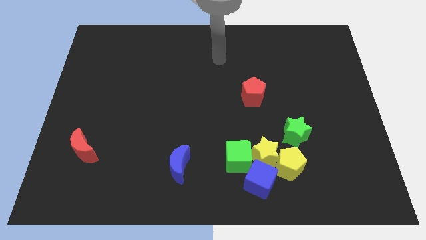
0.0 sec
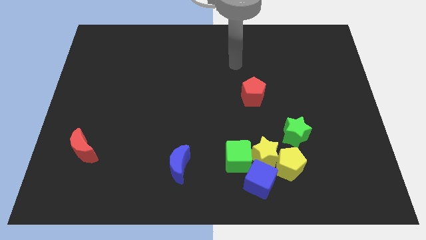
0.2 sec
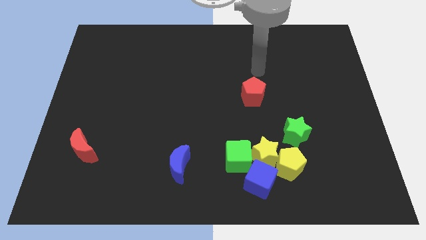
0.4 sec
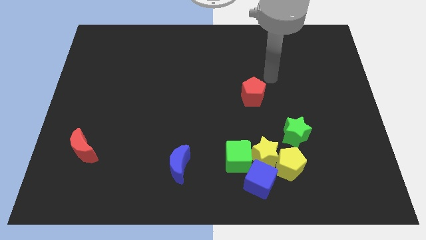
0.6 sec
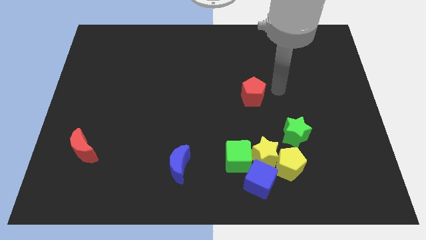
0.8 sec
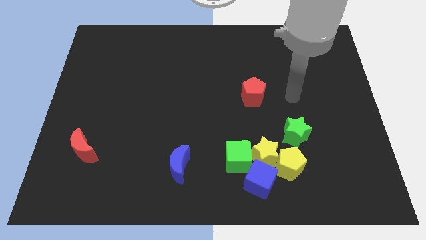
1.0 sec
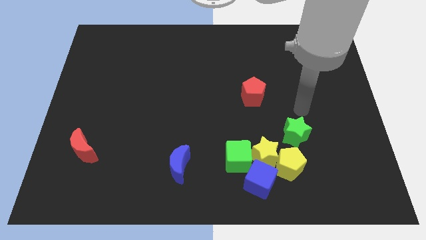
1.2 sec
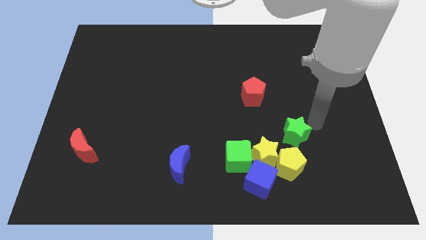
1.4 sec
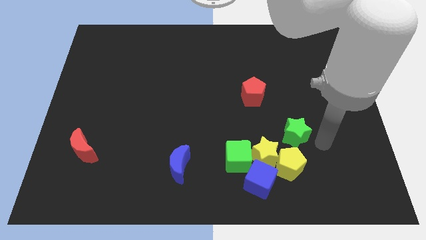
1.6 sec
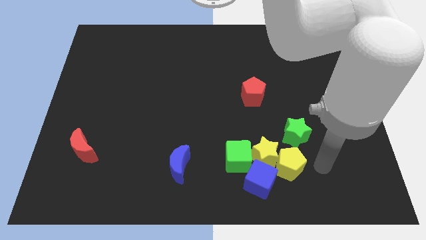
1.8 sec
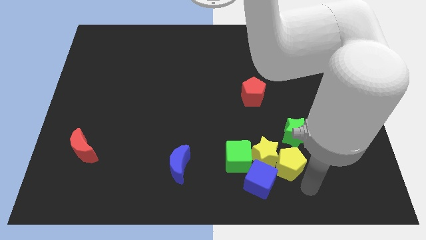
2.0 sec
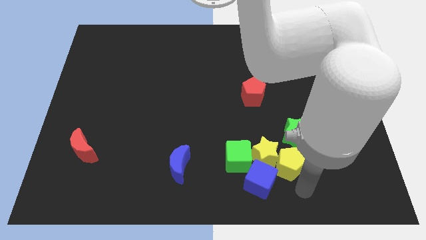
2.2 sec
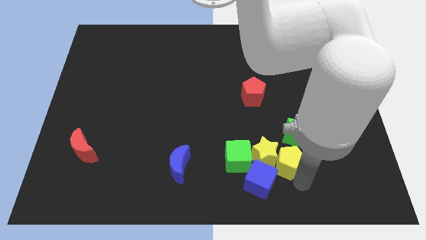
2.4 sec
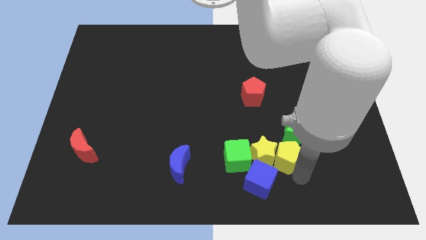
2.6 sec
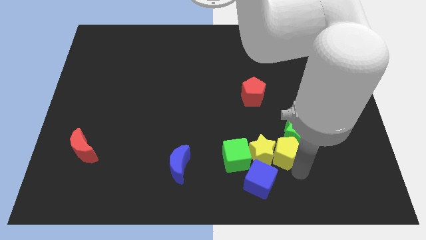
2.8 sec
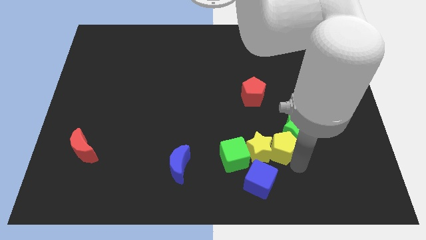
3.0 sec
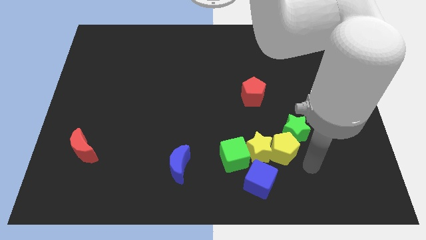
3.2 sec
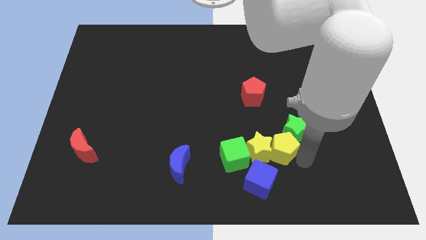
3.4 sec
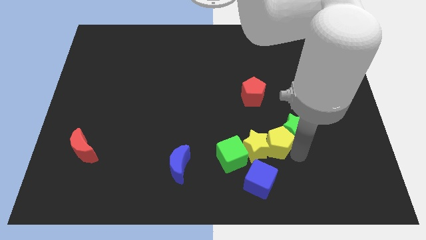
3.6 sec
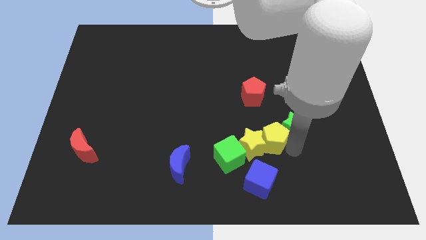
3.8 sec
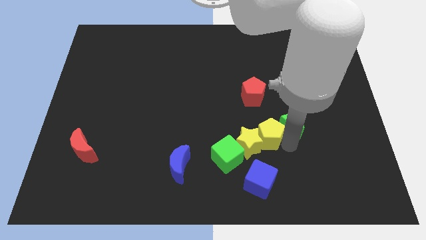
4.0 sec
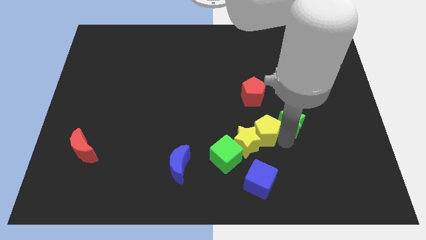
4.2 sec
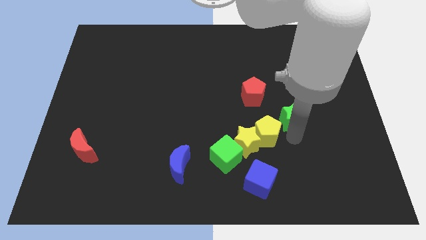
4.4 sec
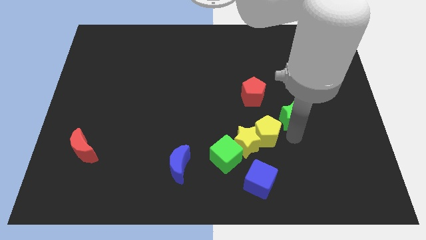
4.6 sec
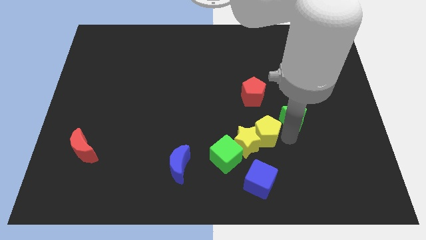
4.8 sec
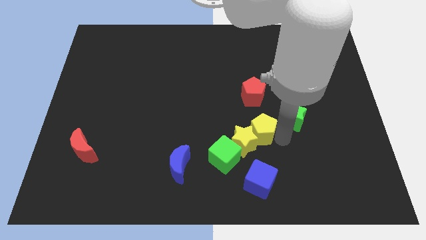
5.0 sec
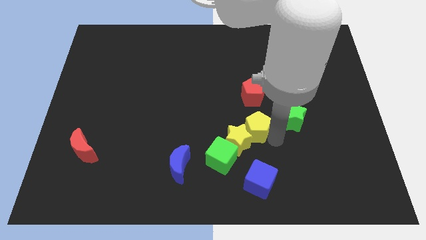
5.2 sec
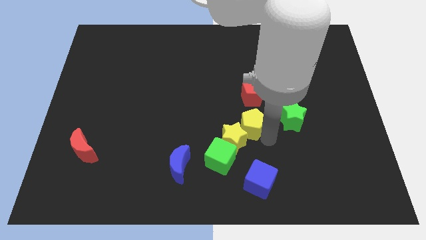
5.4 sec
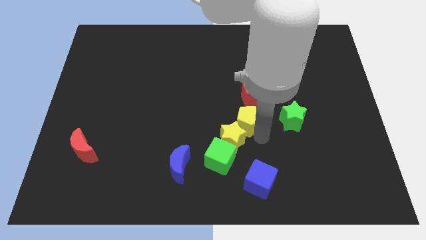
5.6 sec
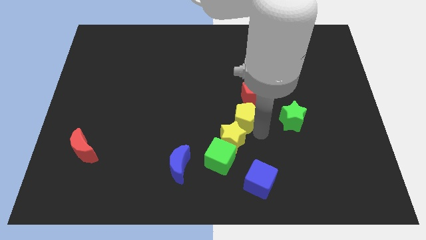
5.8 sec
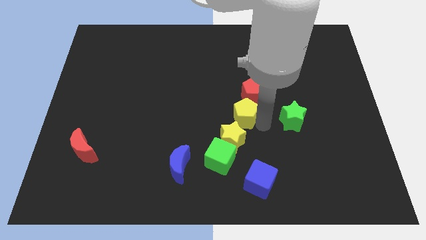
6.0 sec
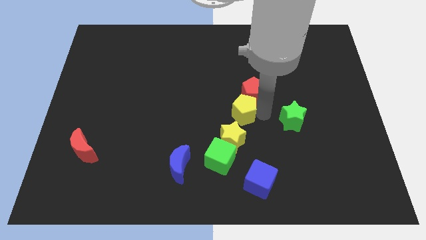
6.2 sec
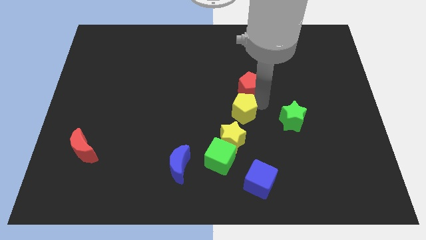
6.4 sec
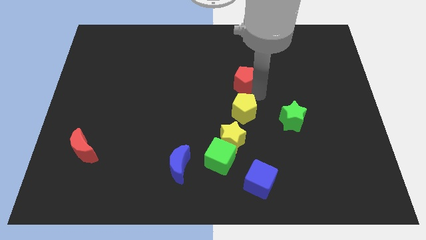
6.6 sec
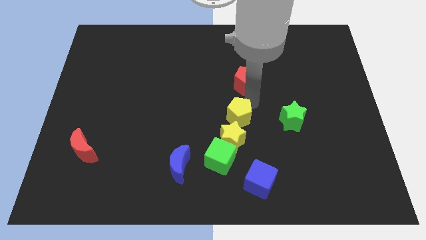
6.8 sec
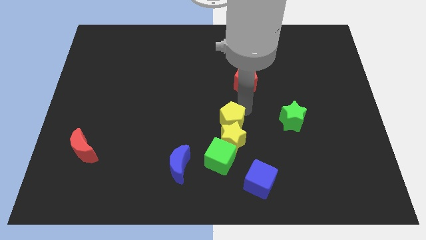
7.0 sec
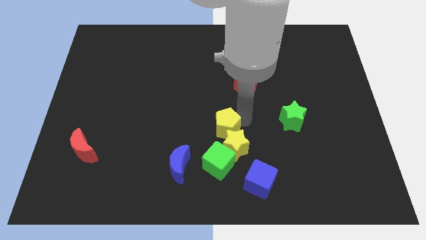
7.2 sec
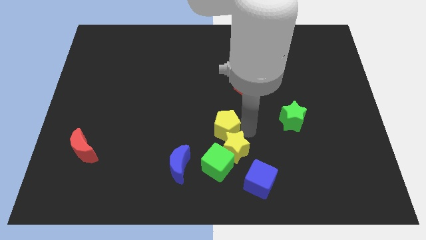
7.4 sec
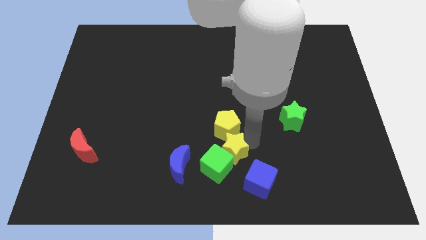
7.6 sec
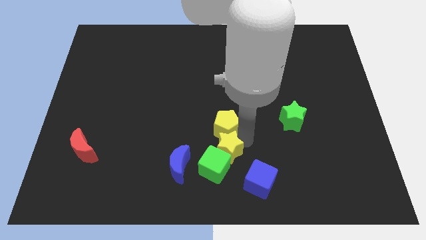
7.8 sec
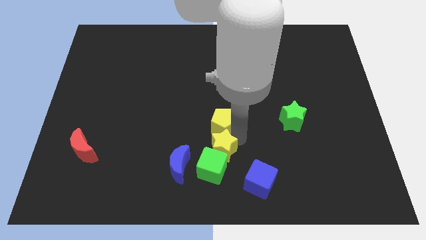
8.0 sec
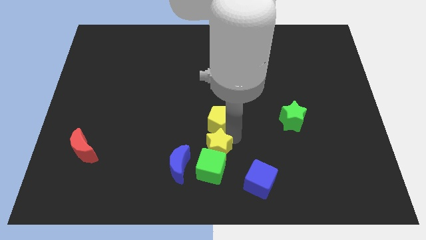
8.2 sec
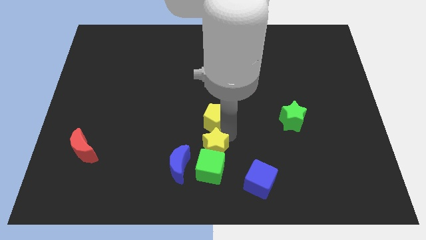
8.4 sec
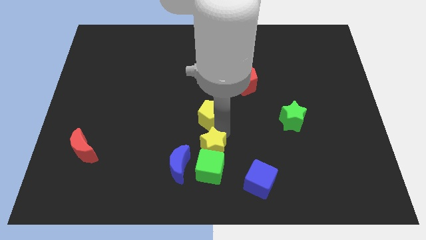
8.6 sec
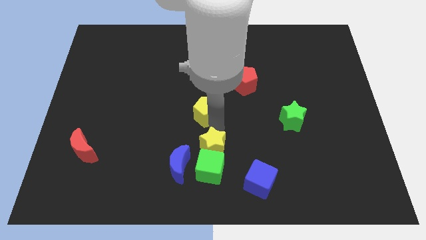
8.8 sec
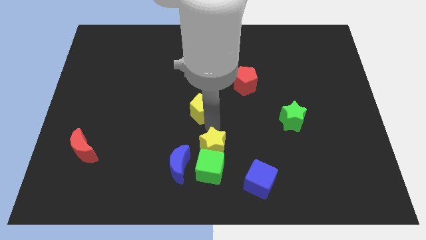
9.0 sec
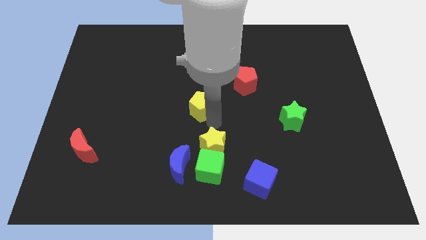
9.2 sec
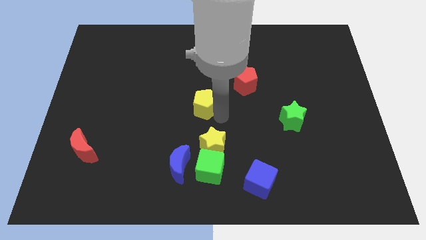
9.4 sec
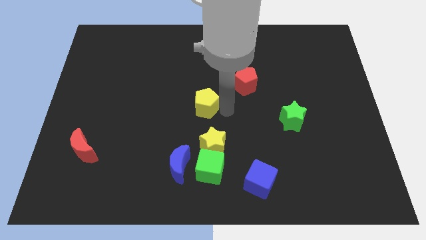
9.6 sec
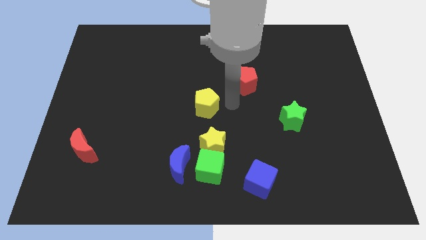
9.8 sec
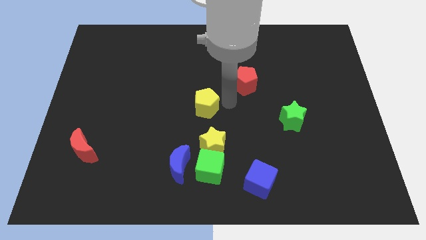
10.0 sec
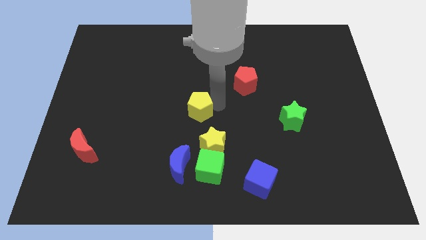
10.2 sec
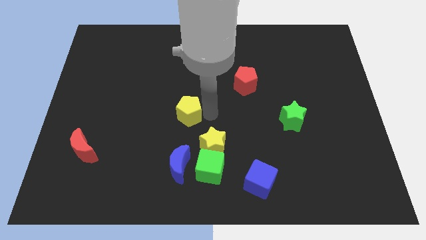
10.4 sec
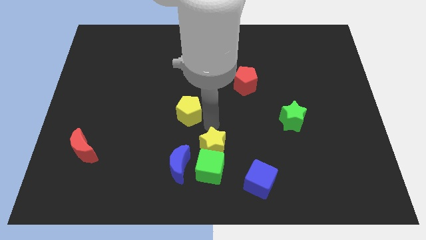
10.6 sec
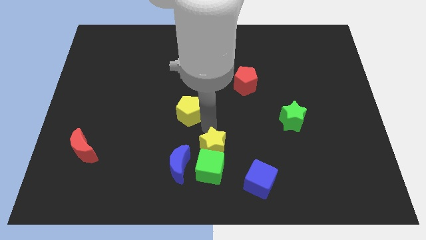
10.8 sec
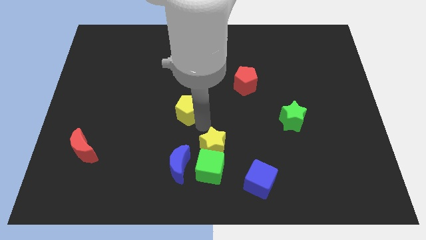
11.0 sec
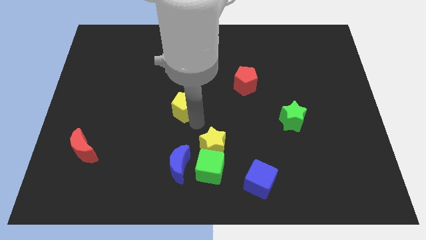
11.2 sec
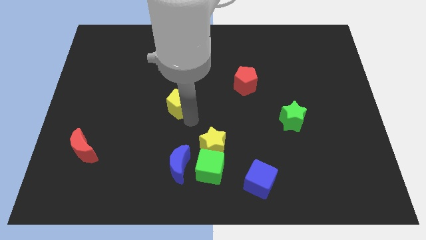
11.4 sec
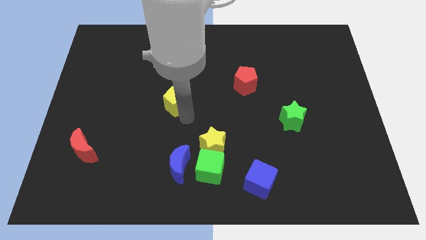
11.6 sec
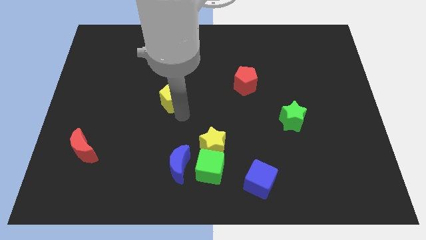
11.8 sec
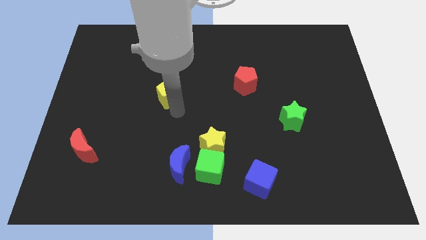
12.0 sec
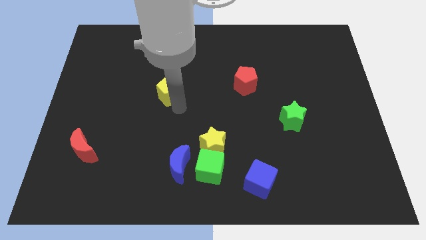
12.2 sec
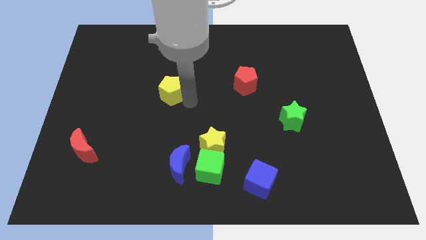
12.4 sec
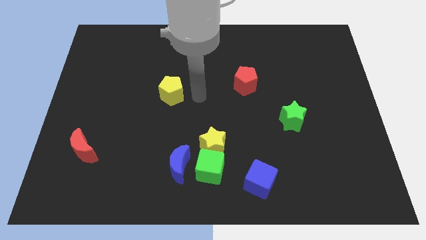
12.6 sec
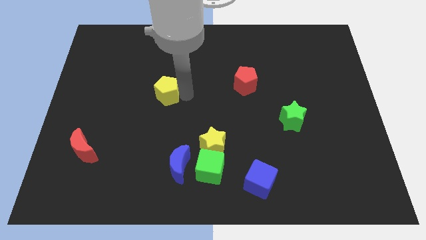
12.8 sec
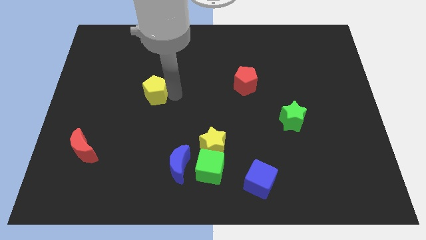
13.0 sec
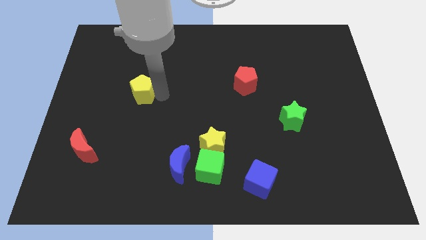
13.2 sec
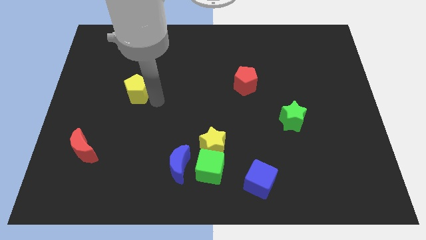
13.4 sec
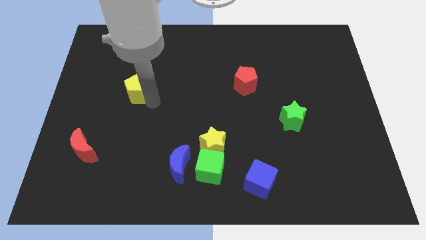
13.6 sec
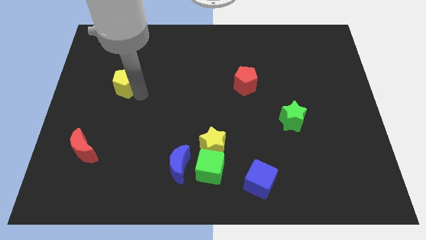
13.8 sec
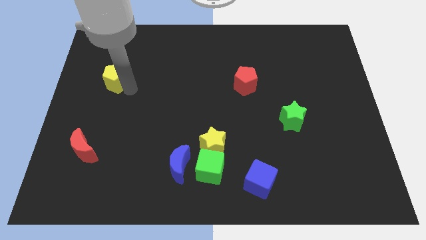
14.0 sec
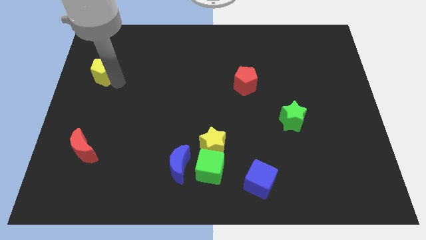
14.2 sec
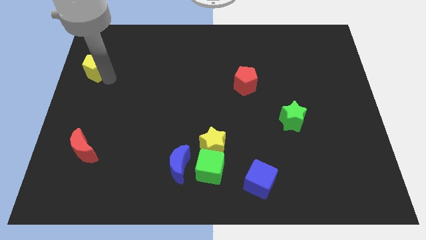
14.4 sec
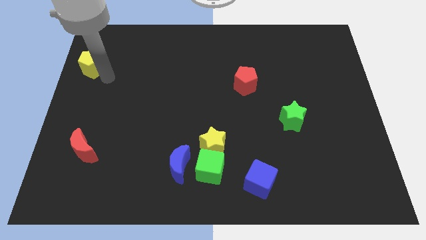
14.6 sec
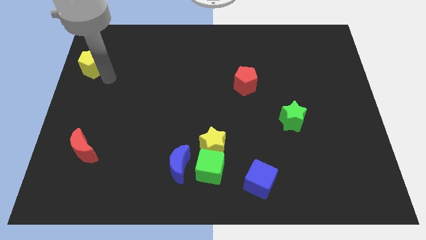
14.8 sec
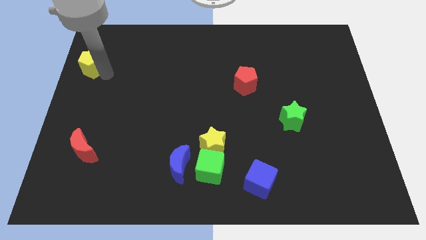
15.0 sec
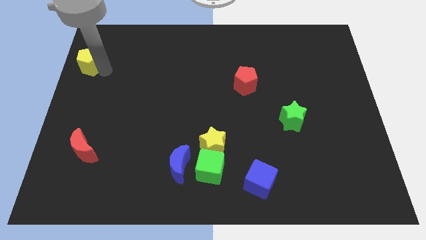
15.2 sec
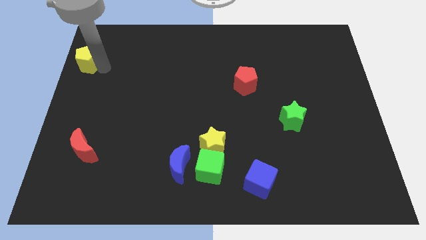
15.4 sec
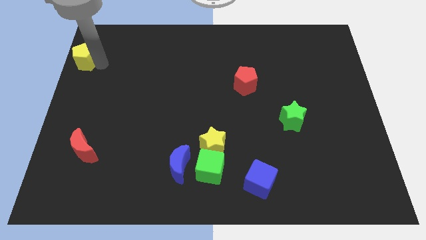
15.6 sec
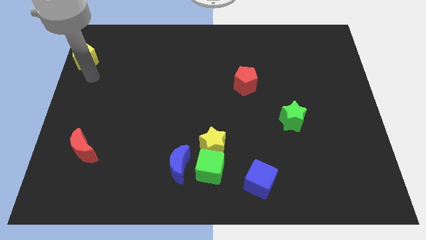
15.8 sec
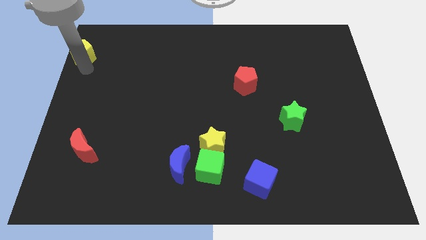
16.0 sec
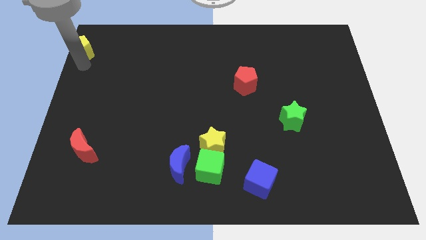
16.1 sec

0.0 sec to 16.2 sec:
push the yellow pentagon to the top left
